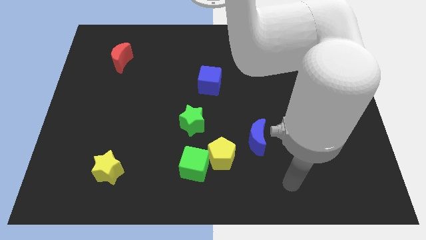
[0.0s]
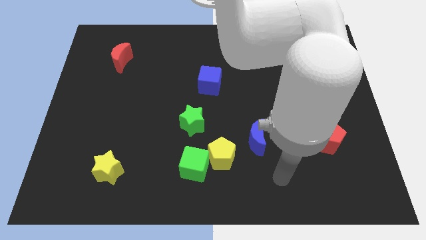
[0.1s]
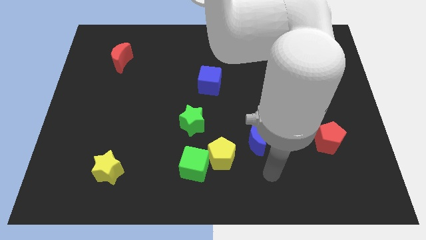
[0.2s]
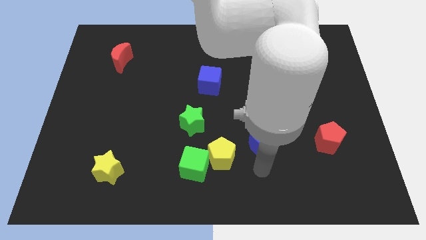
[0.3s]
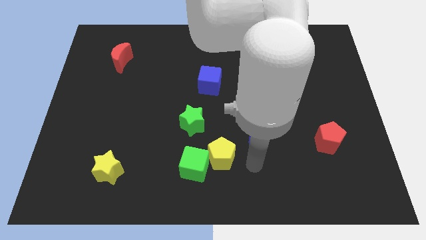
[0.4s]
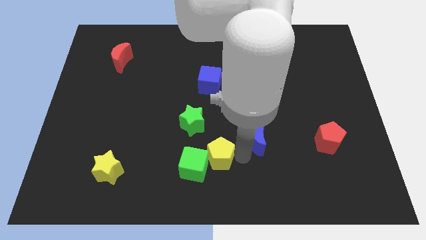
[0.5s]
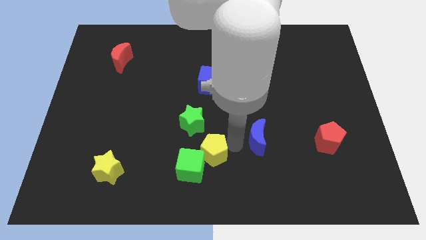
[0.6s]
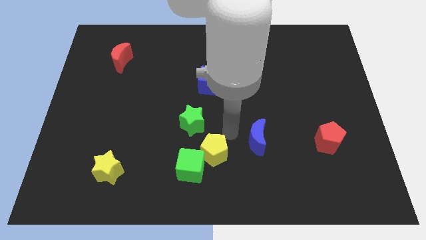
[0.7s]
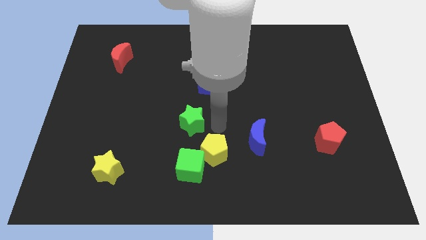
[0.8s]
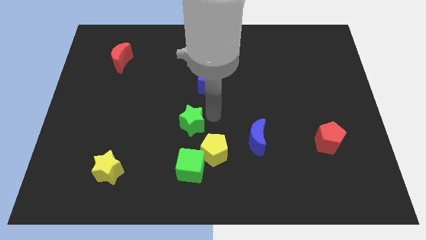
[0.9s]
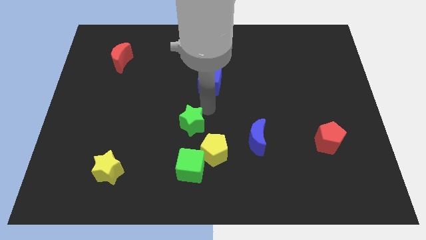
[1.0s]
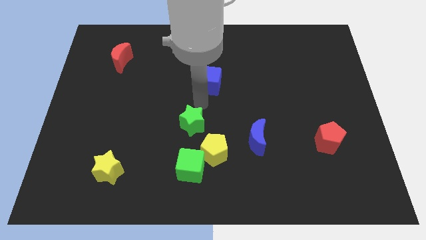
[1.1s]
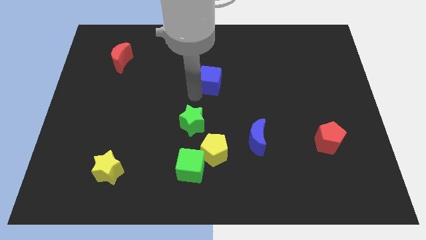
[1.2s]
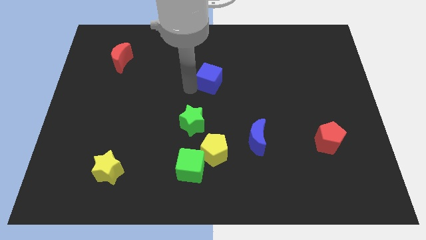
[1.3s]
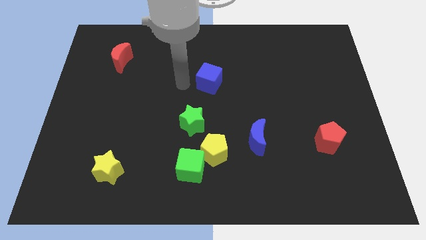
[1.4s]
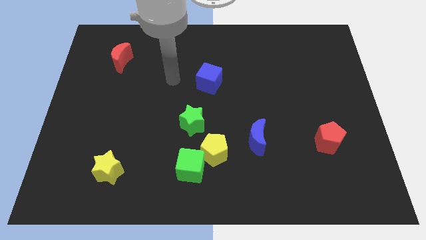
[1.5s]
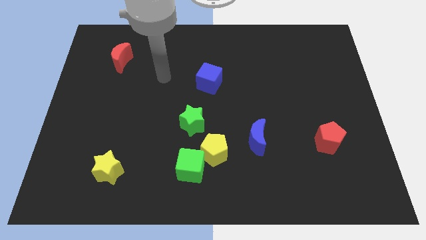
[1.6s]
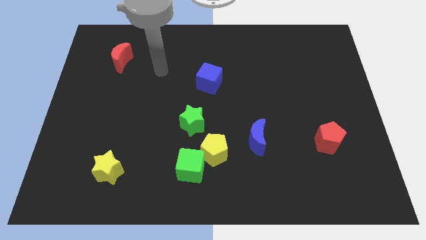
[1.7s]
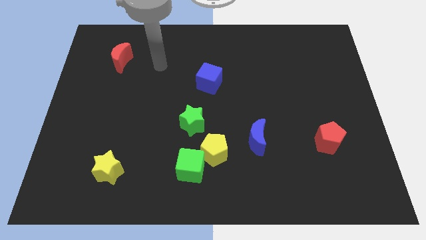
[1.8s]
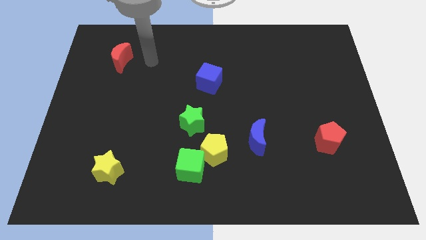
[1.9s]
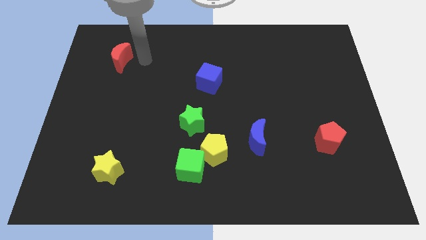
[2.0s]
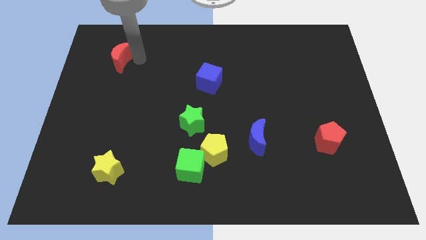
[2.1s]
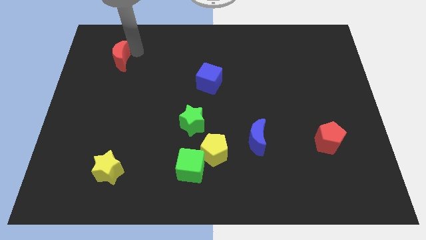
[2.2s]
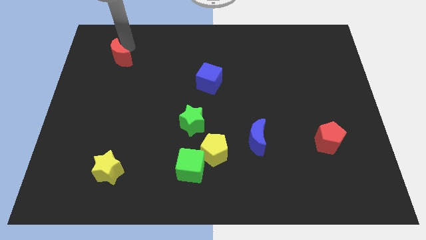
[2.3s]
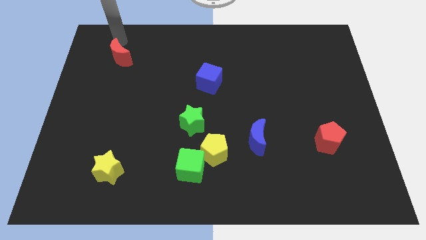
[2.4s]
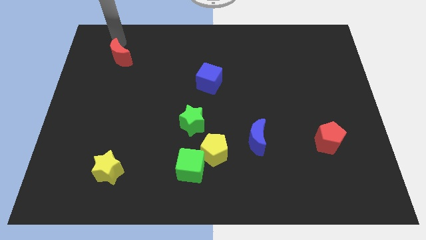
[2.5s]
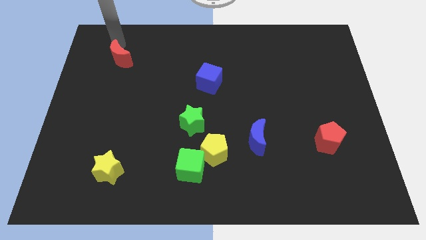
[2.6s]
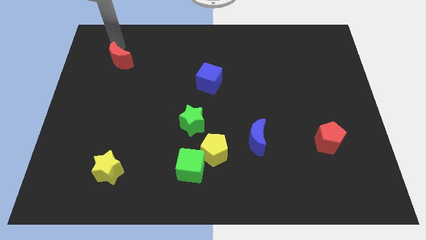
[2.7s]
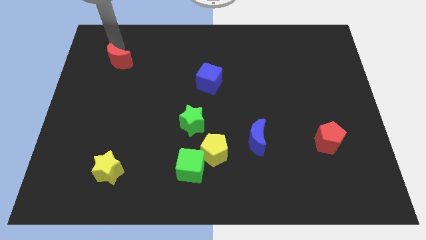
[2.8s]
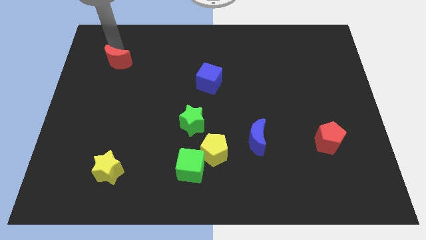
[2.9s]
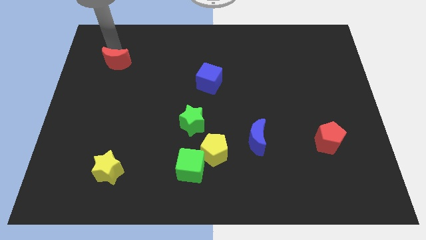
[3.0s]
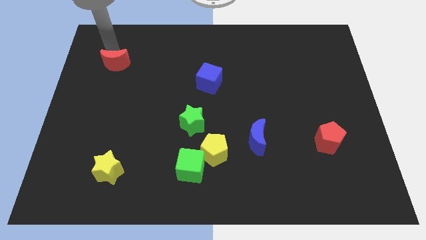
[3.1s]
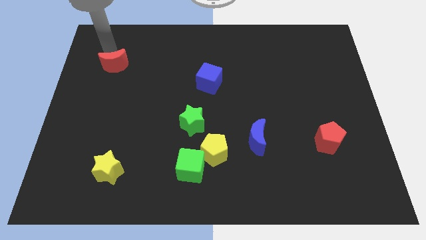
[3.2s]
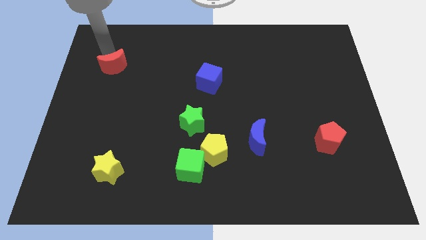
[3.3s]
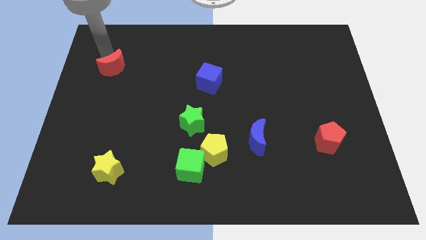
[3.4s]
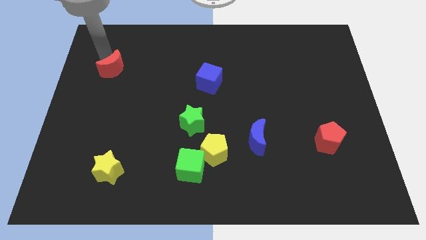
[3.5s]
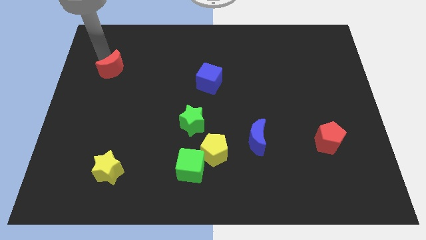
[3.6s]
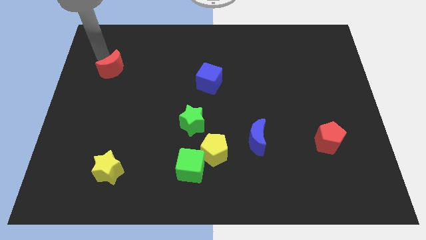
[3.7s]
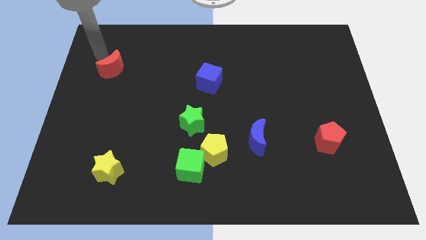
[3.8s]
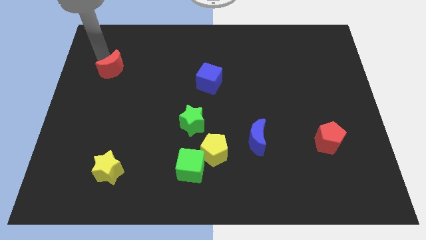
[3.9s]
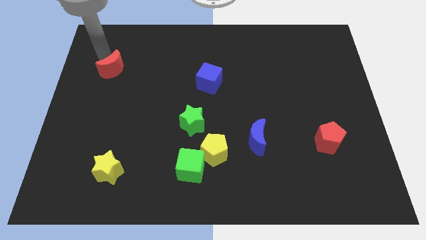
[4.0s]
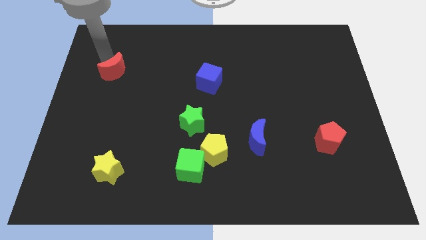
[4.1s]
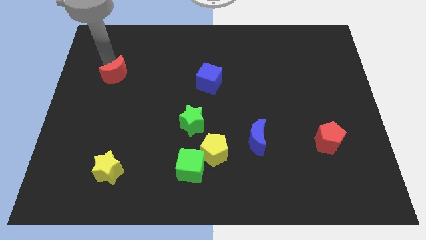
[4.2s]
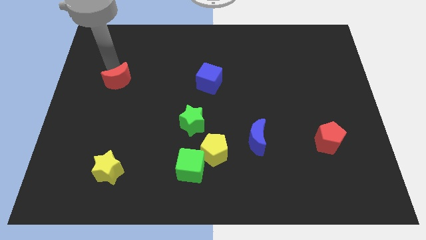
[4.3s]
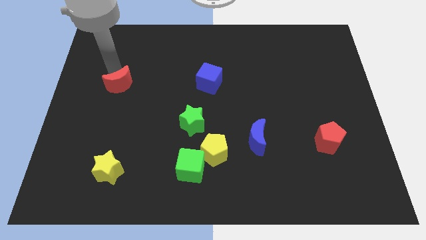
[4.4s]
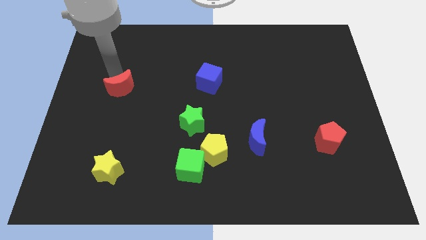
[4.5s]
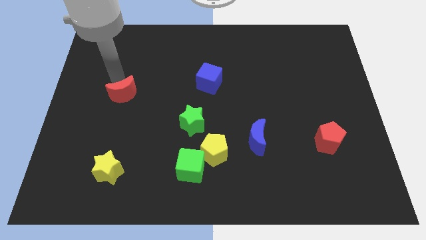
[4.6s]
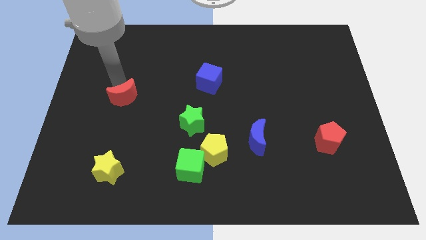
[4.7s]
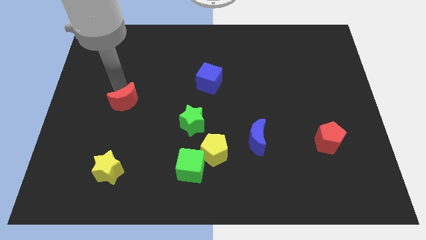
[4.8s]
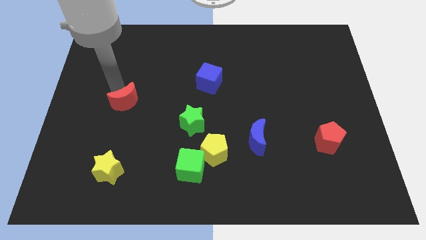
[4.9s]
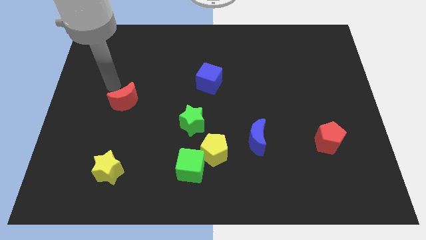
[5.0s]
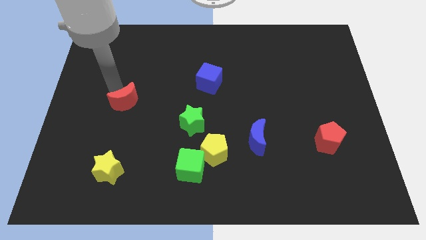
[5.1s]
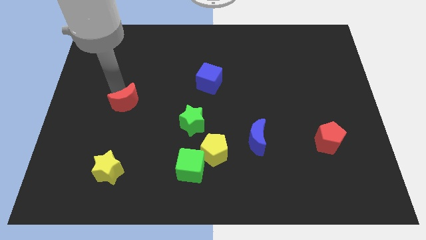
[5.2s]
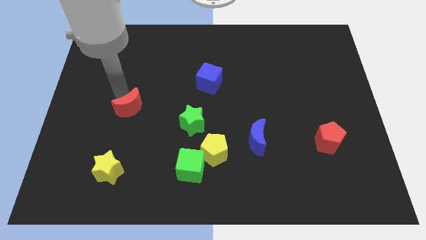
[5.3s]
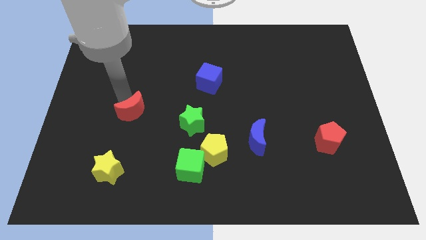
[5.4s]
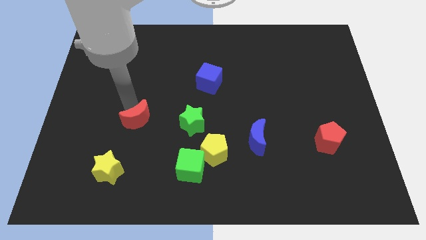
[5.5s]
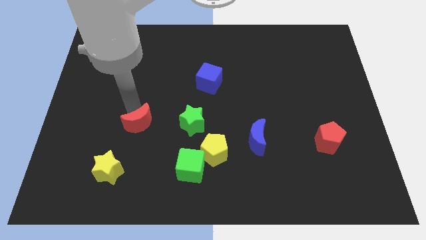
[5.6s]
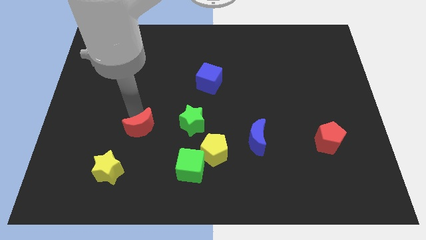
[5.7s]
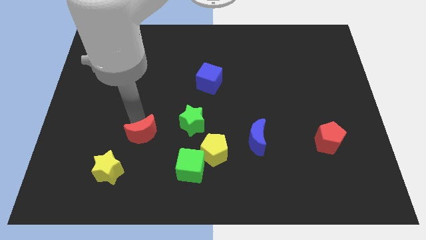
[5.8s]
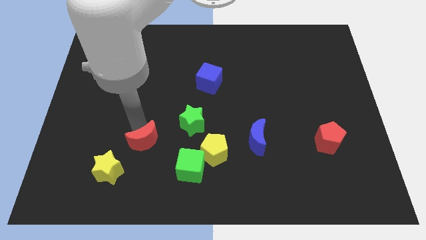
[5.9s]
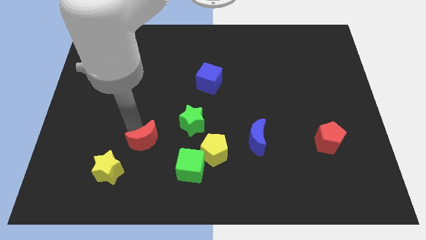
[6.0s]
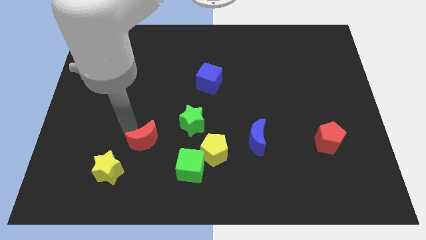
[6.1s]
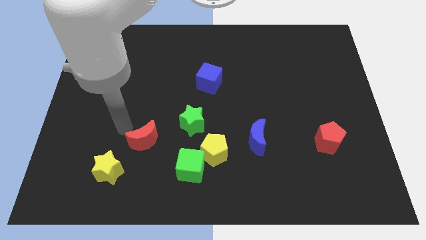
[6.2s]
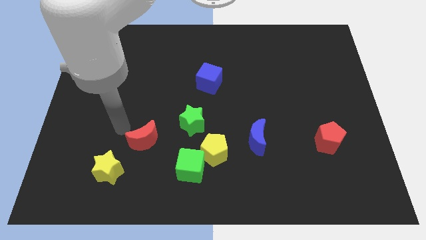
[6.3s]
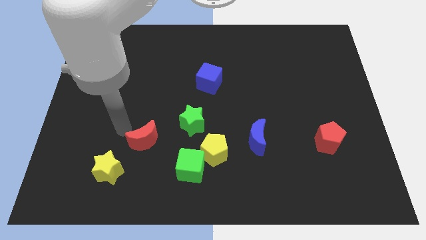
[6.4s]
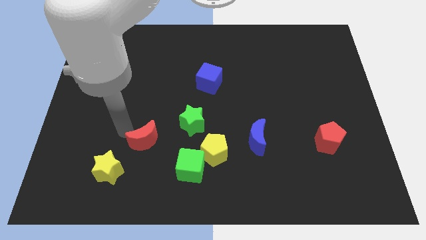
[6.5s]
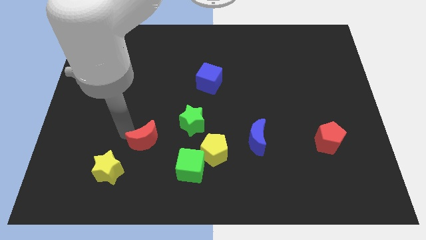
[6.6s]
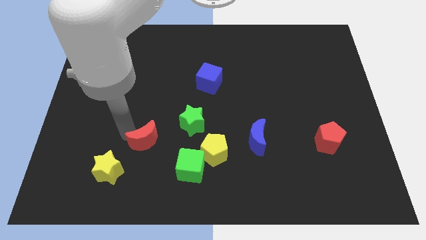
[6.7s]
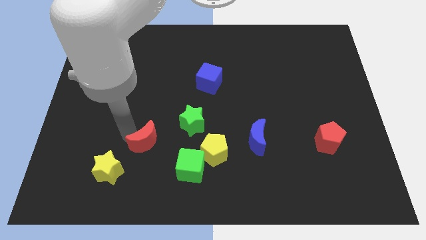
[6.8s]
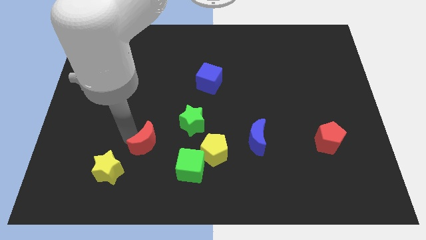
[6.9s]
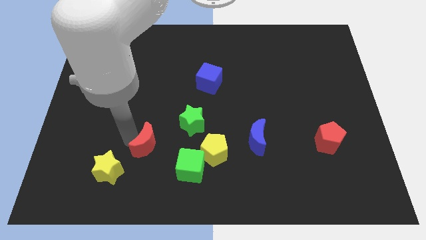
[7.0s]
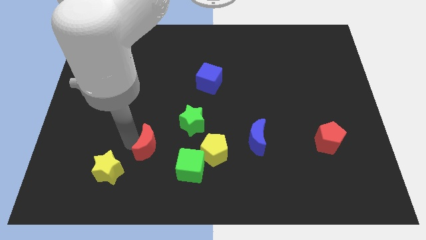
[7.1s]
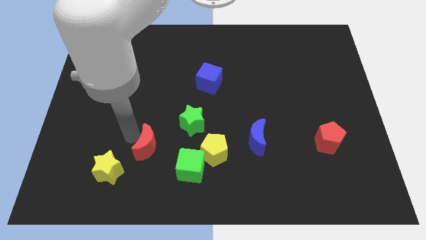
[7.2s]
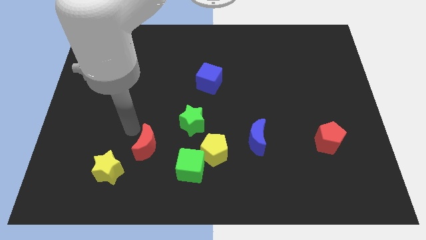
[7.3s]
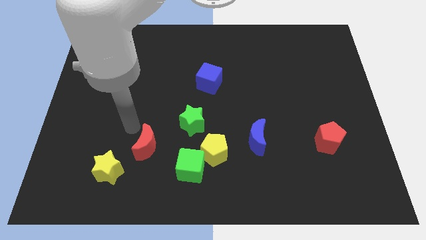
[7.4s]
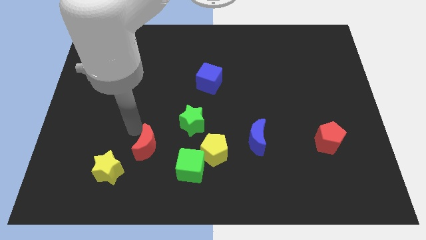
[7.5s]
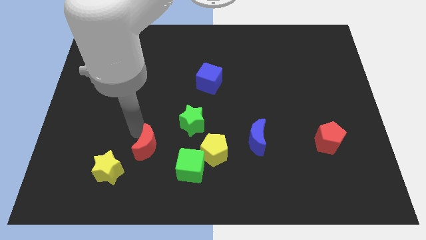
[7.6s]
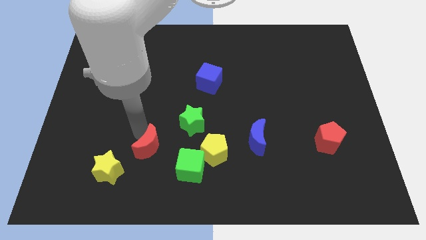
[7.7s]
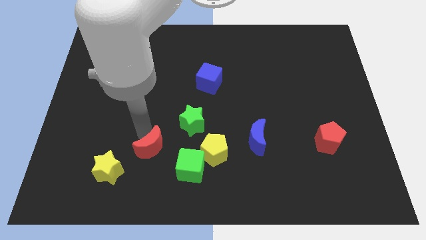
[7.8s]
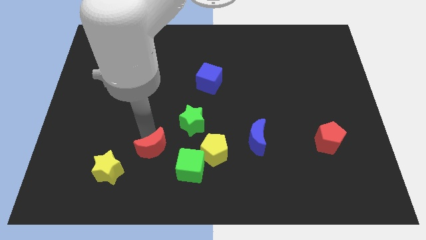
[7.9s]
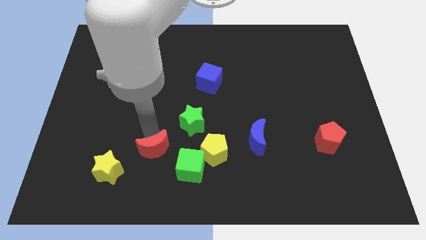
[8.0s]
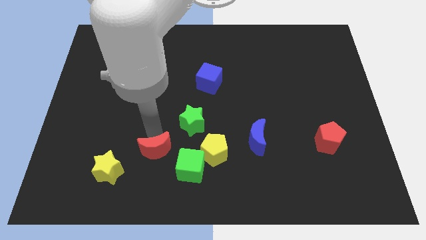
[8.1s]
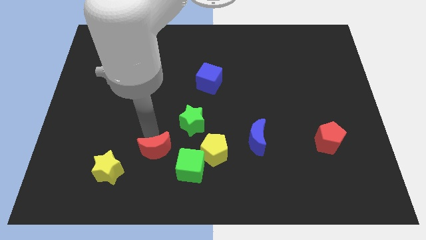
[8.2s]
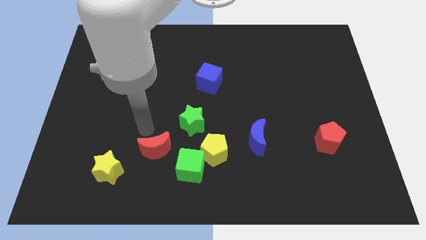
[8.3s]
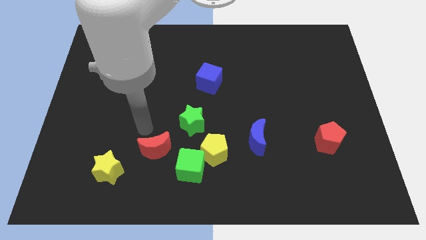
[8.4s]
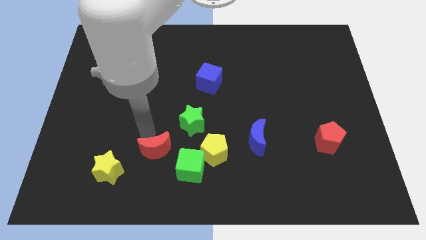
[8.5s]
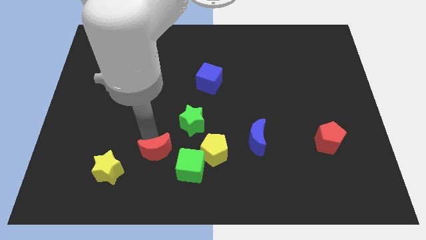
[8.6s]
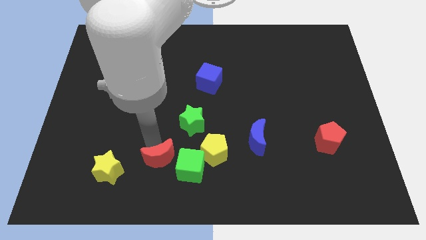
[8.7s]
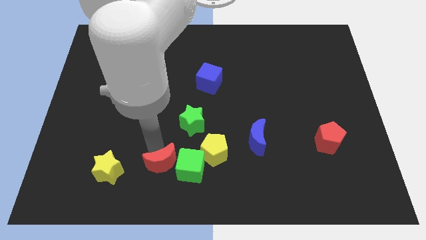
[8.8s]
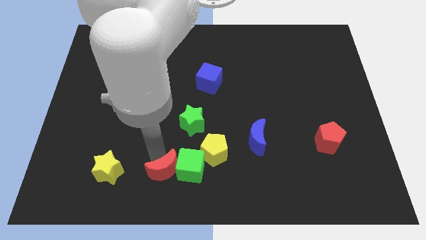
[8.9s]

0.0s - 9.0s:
push the red moon to the bottom side
